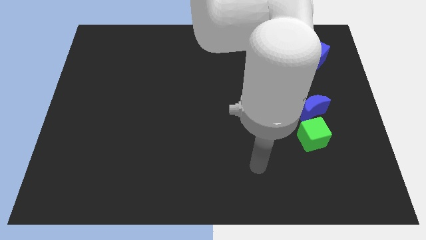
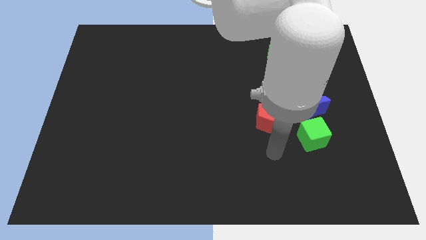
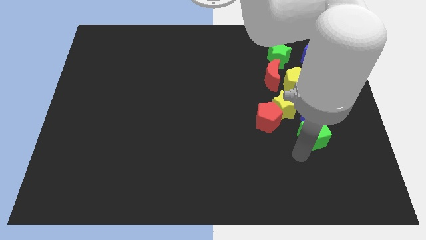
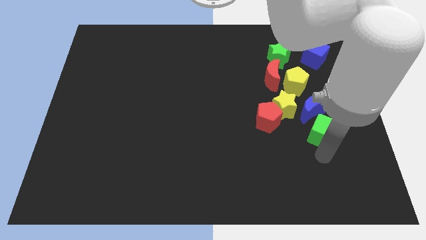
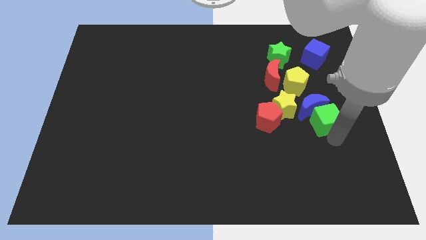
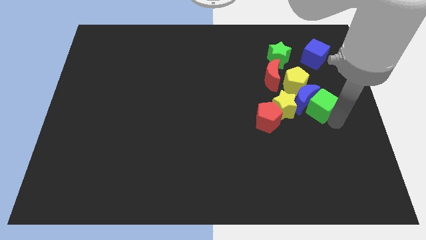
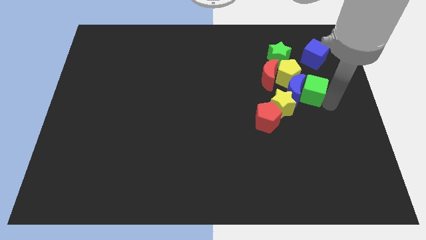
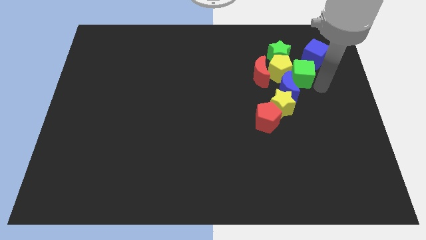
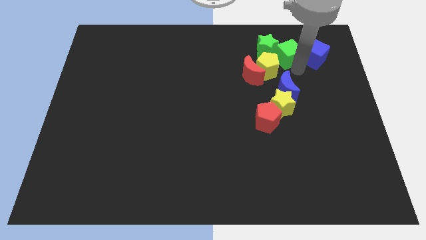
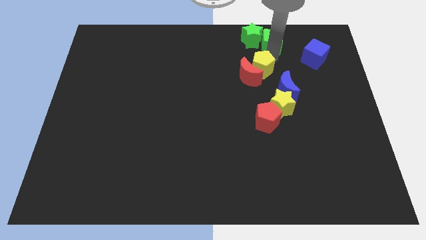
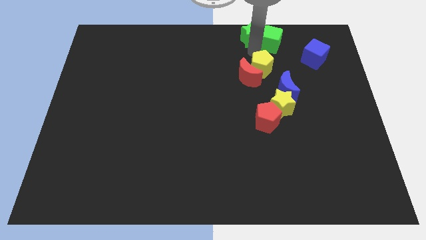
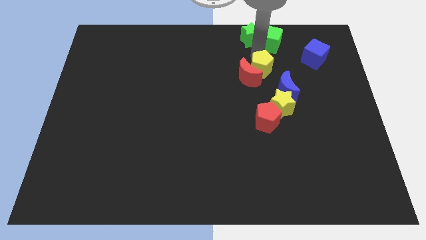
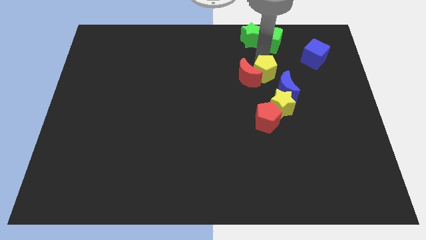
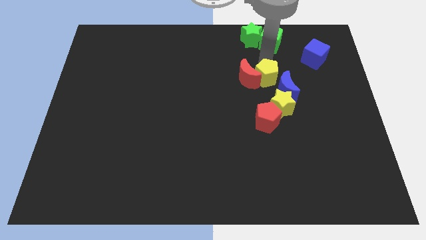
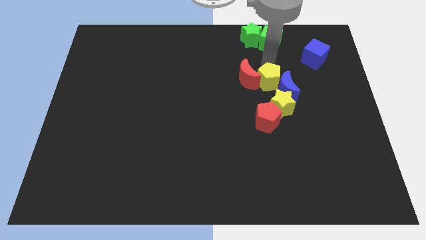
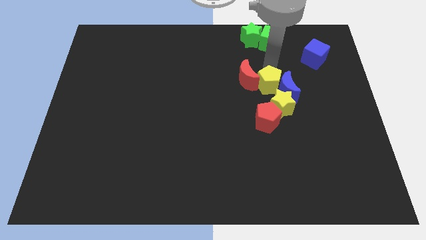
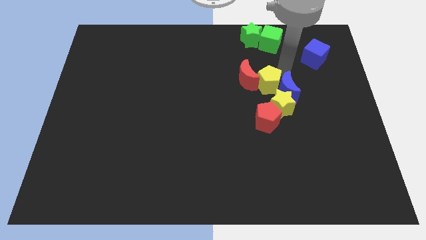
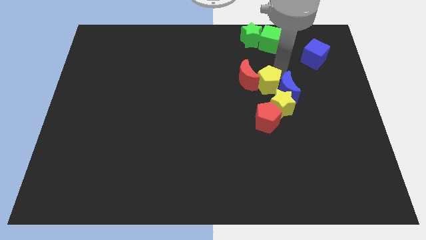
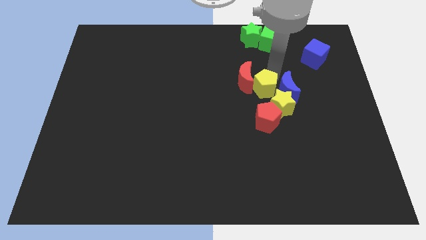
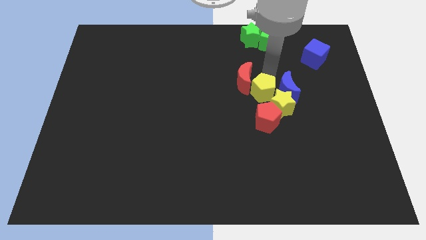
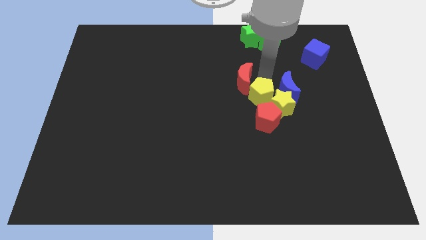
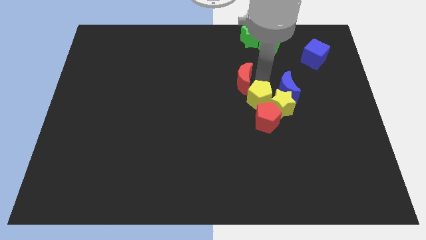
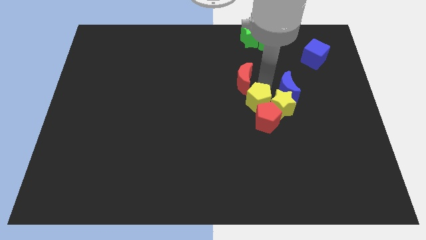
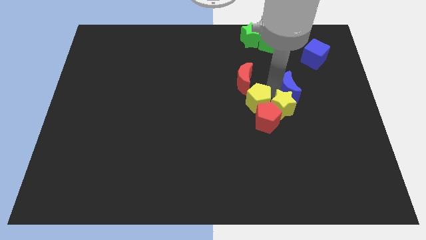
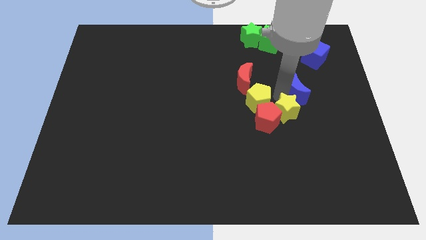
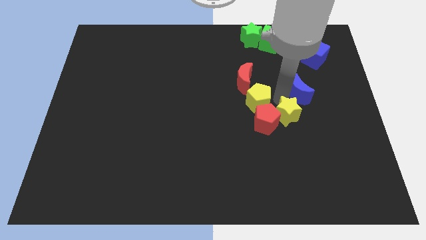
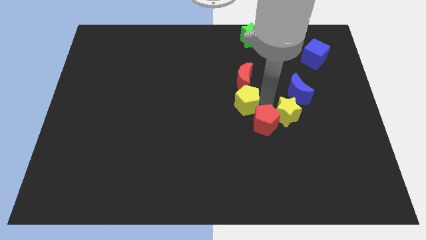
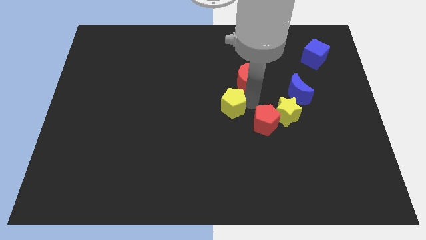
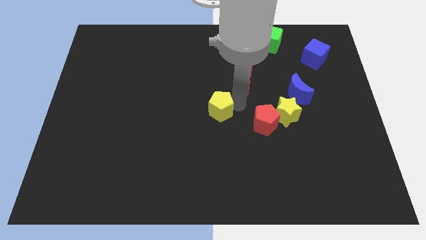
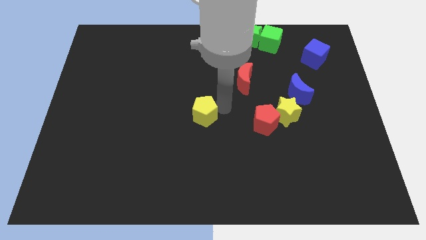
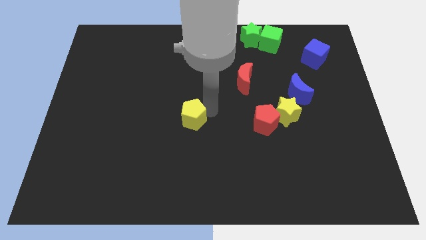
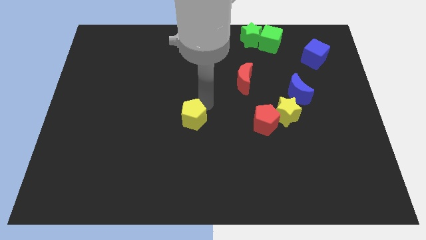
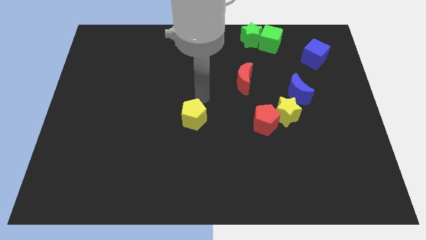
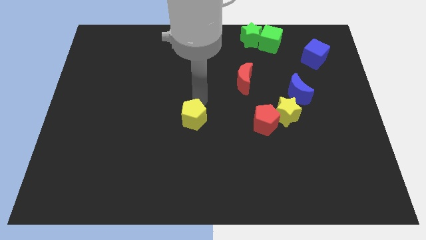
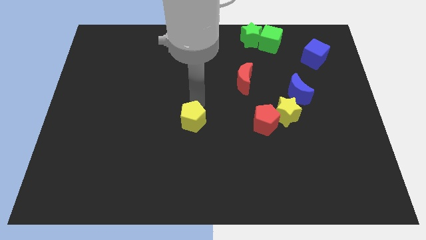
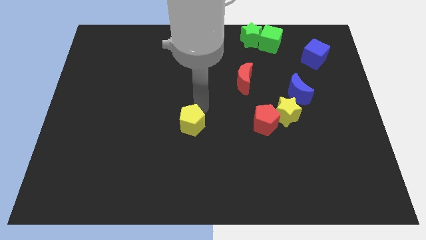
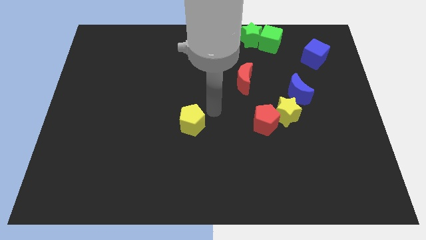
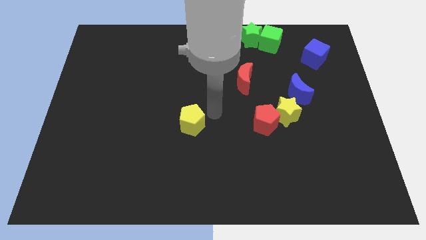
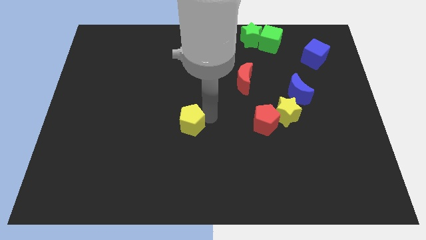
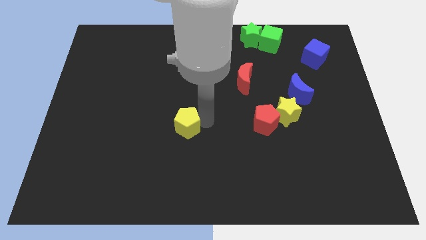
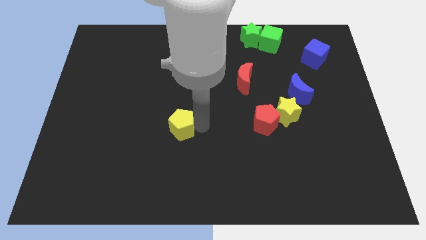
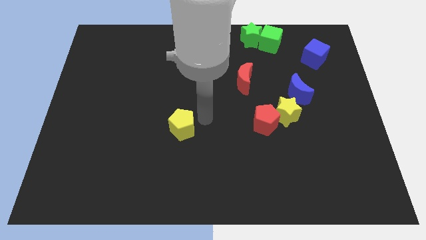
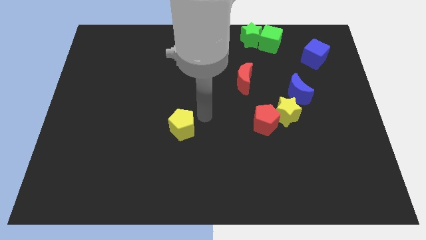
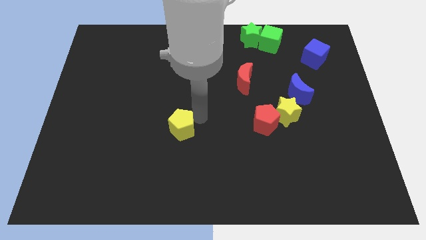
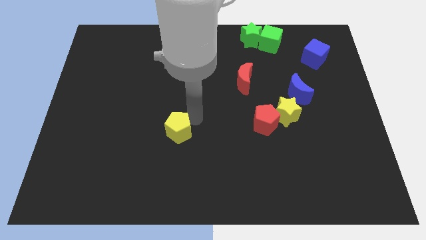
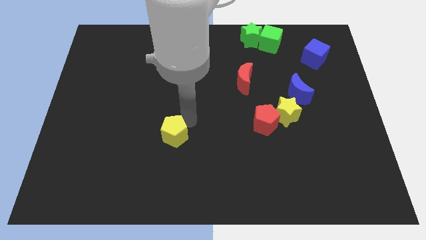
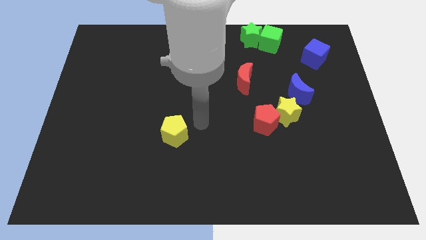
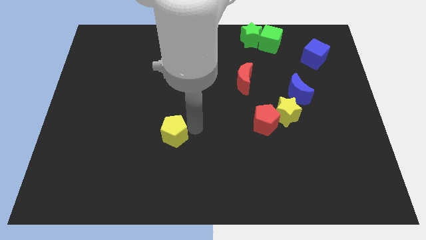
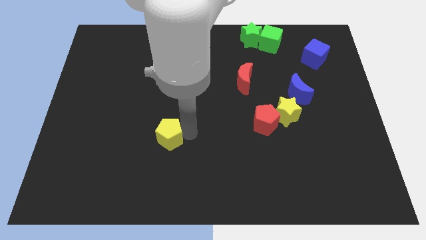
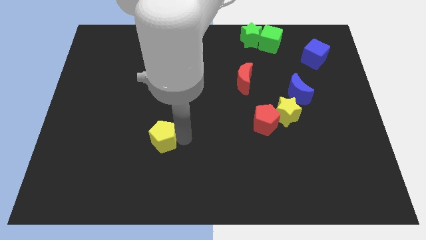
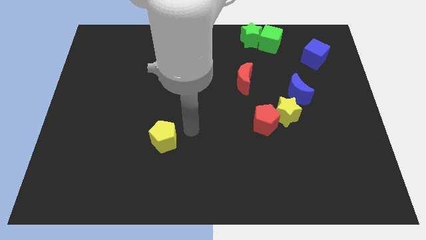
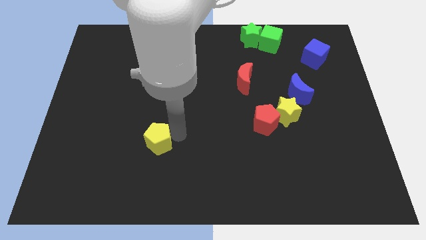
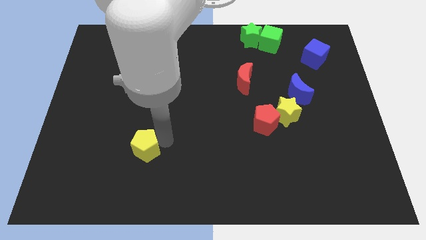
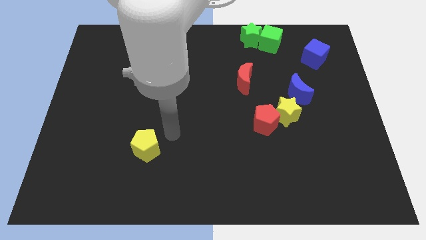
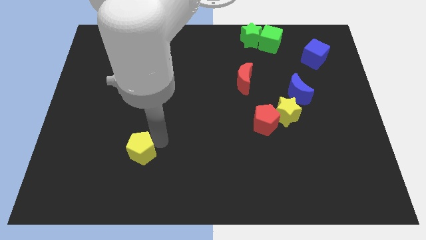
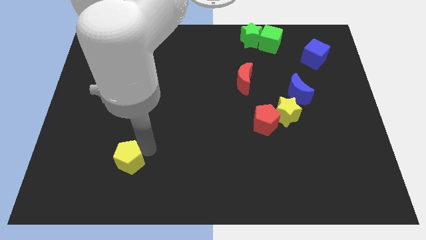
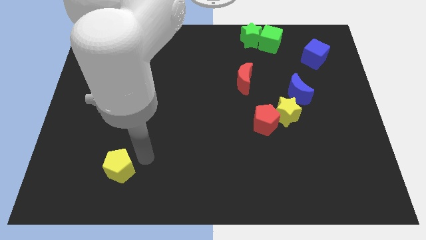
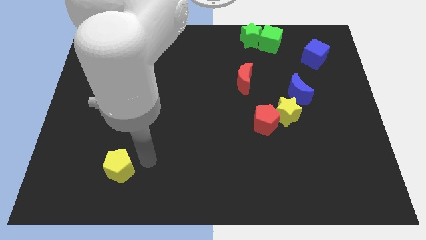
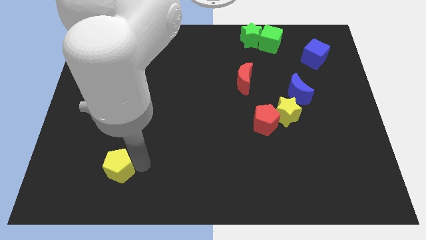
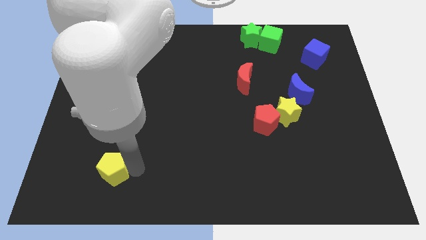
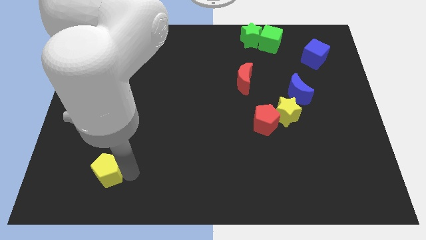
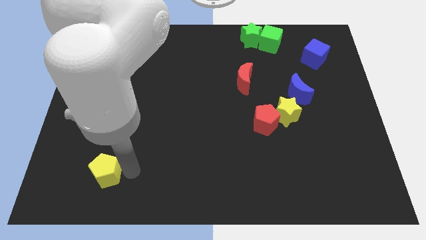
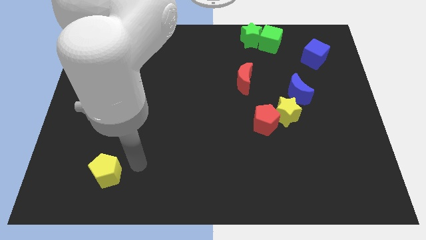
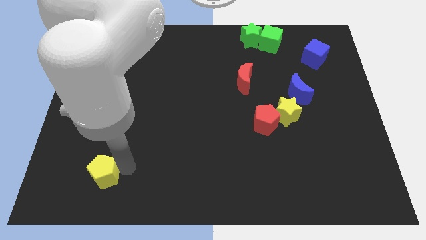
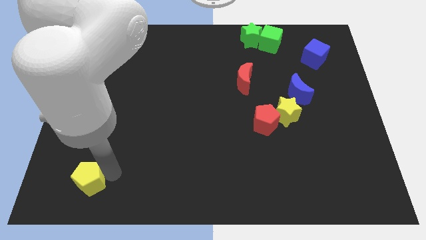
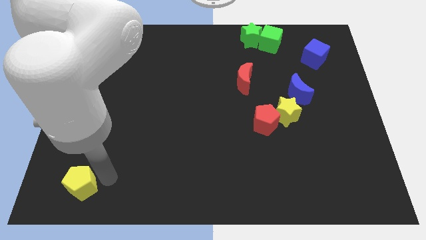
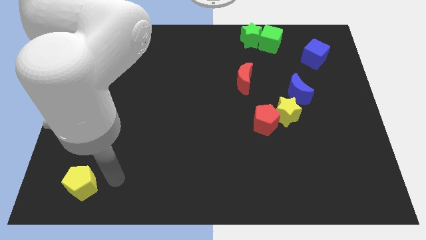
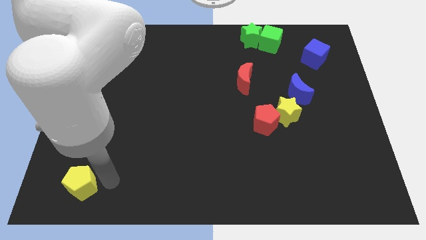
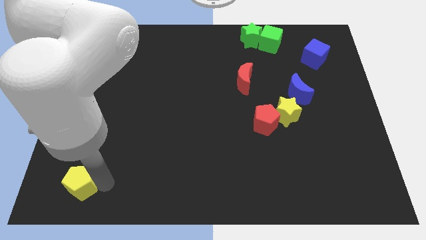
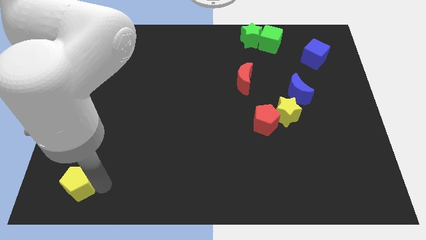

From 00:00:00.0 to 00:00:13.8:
slide the yellow pentagon to the bottom left of the board

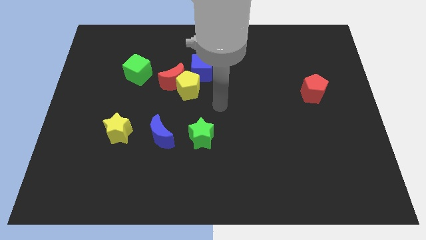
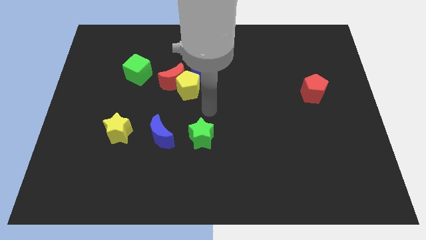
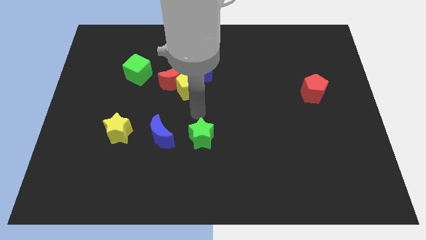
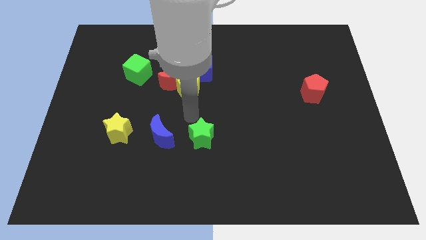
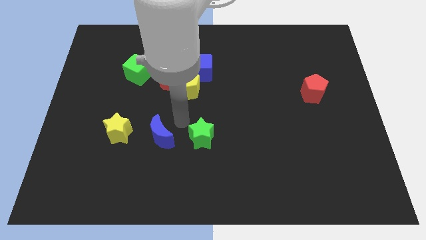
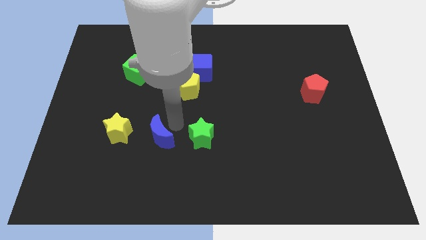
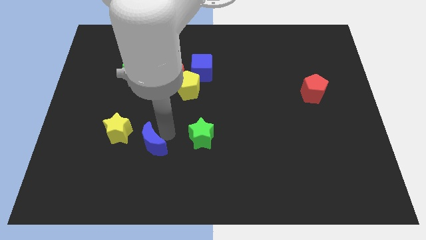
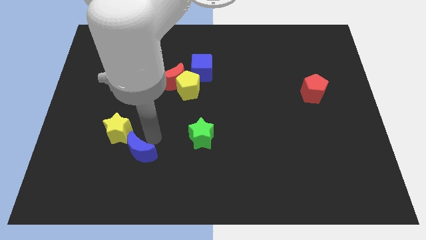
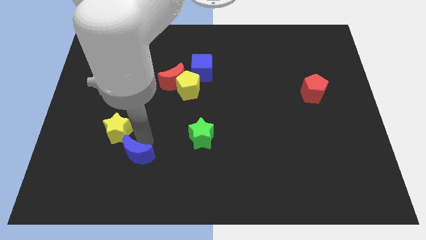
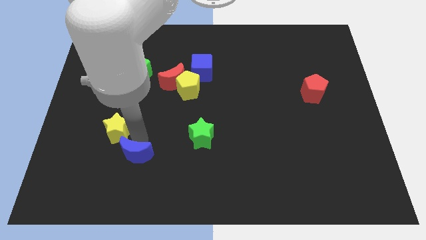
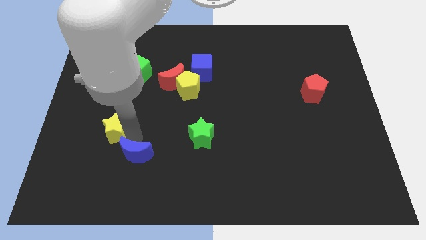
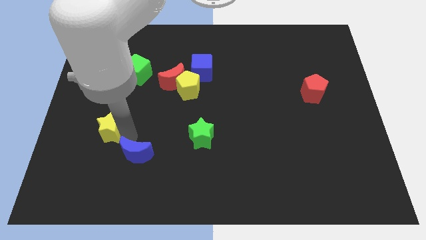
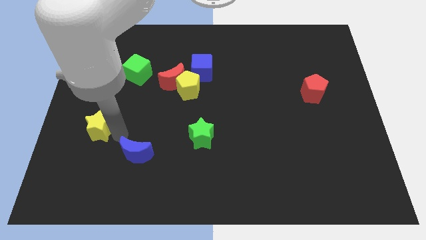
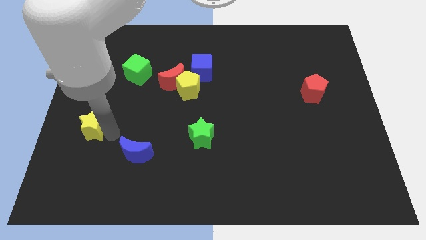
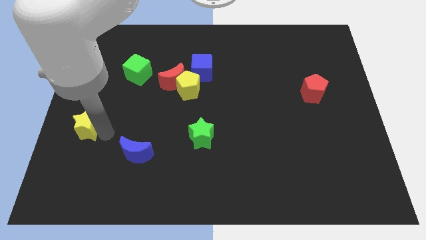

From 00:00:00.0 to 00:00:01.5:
move the yellow star to the left side
